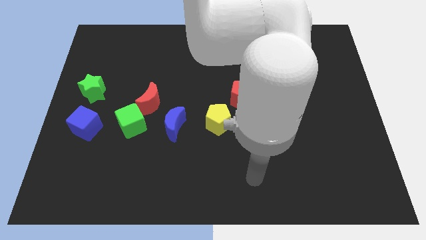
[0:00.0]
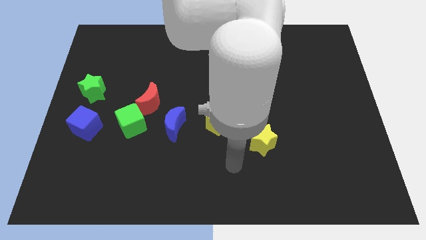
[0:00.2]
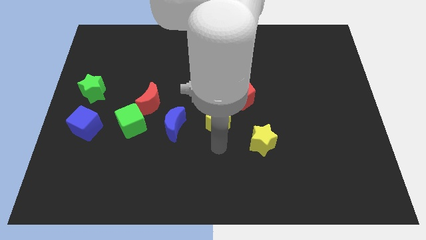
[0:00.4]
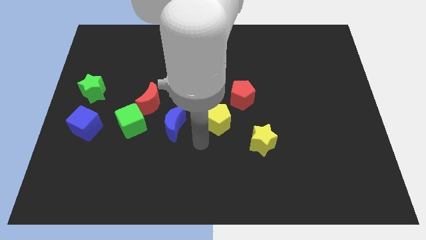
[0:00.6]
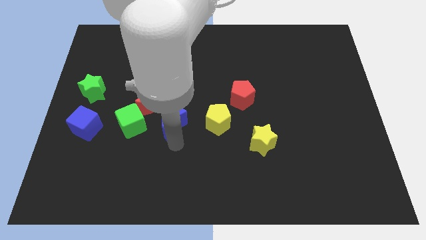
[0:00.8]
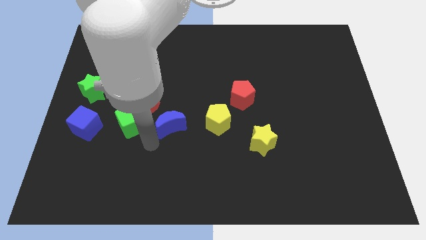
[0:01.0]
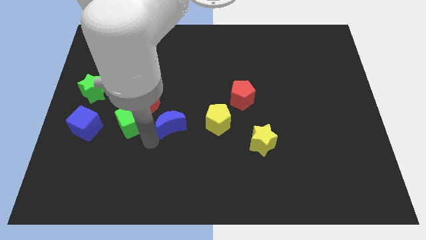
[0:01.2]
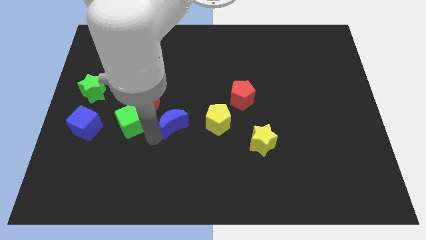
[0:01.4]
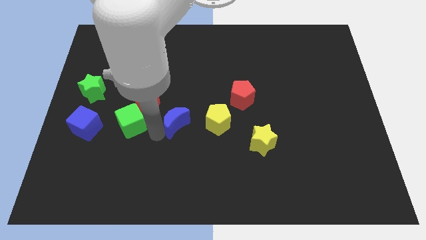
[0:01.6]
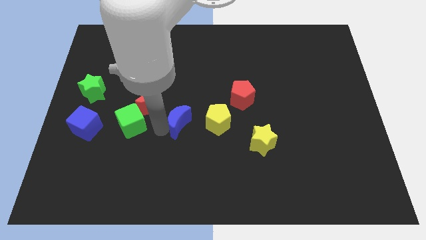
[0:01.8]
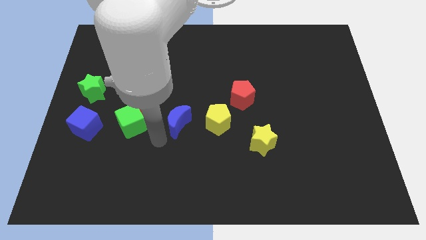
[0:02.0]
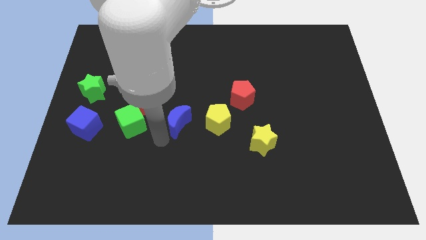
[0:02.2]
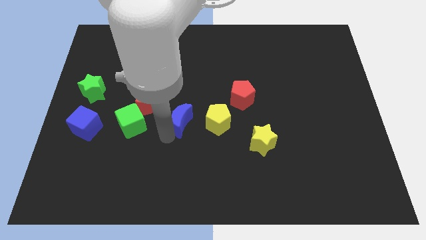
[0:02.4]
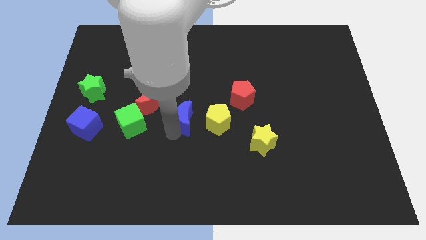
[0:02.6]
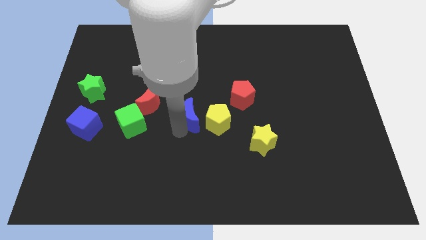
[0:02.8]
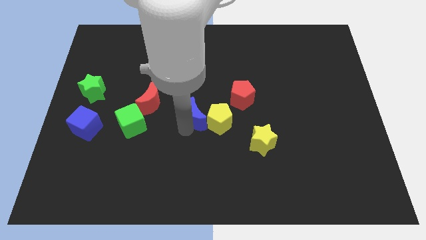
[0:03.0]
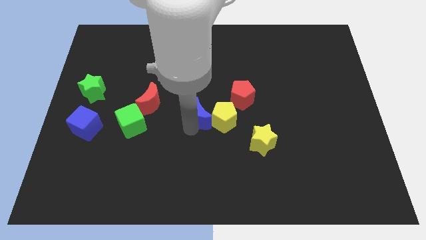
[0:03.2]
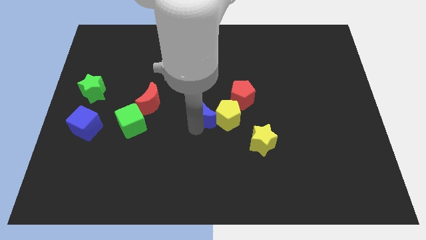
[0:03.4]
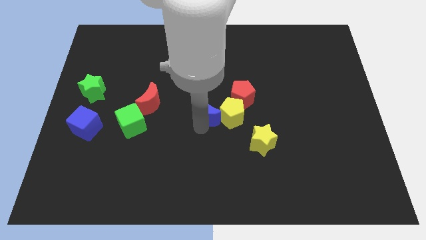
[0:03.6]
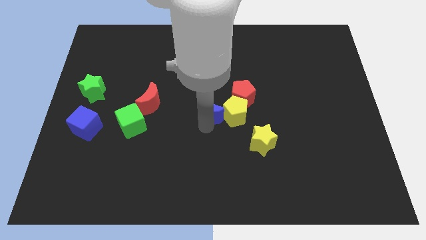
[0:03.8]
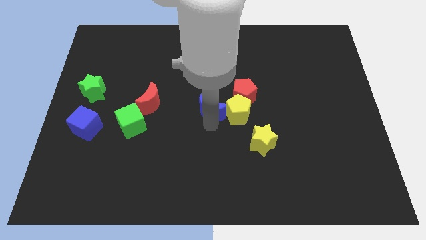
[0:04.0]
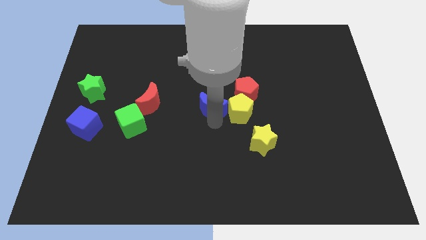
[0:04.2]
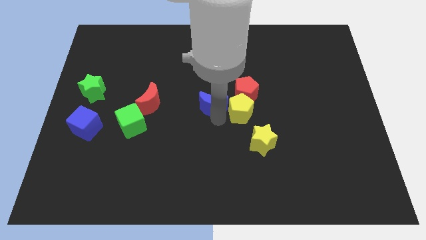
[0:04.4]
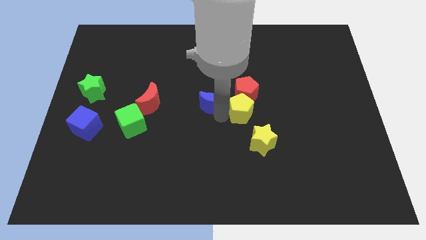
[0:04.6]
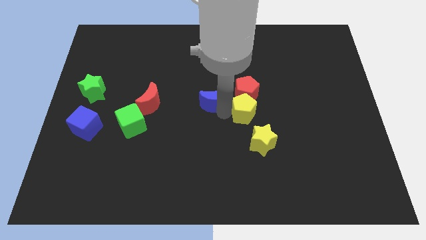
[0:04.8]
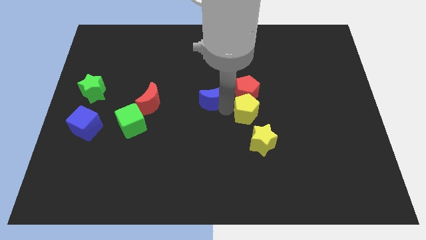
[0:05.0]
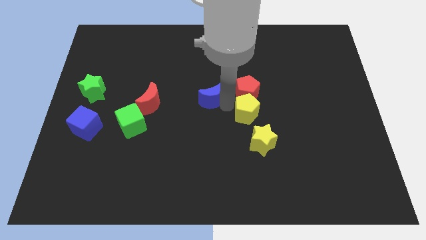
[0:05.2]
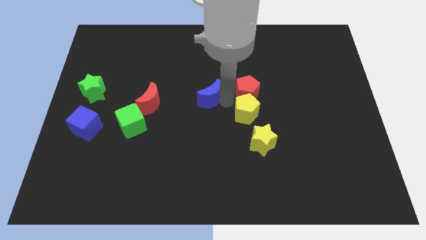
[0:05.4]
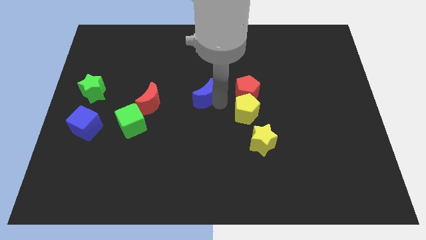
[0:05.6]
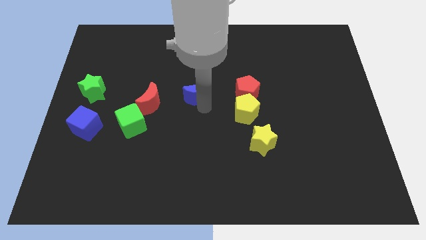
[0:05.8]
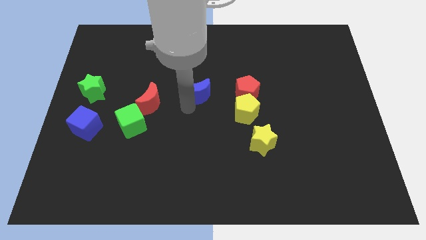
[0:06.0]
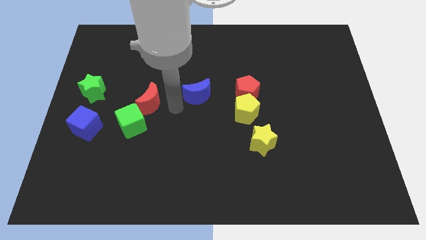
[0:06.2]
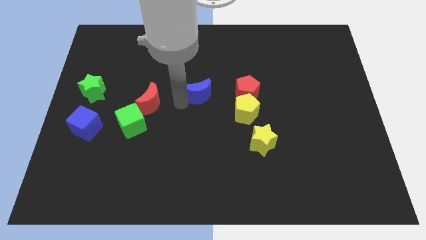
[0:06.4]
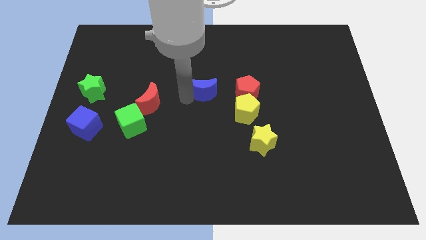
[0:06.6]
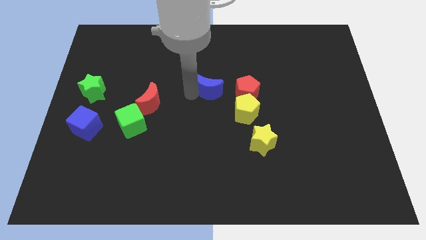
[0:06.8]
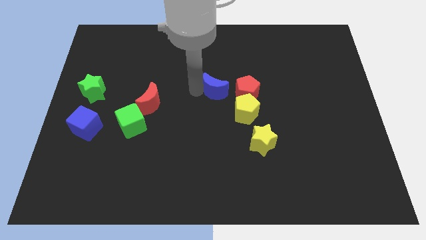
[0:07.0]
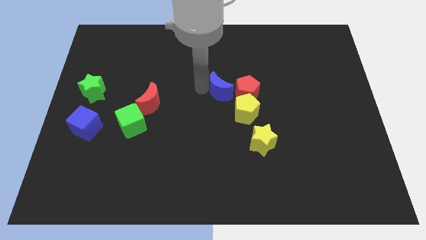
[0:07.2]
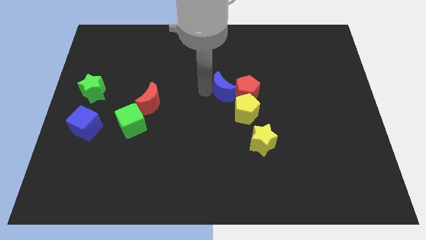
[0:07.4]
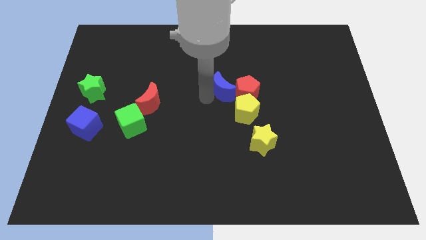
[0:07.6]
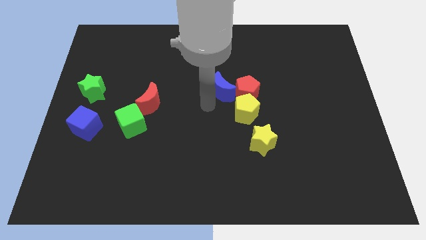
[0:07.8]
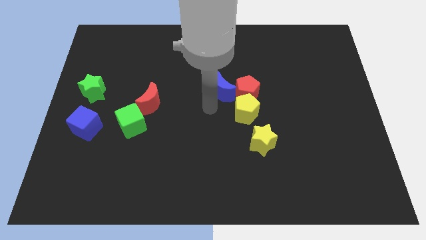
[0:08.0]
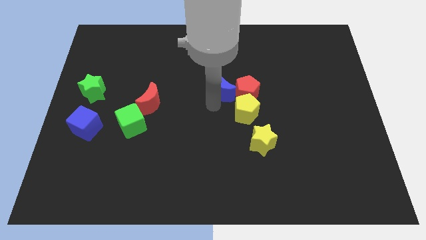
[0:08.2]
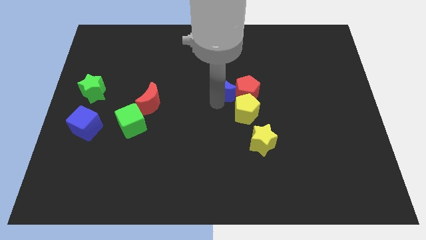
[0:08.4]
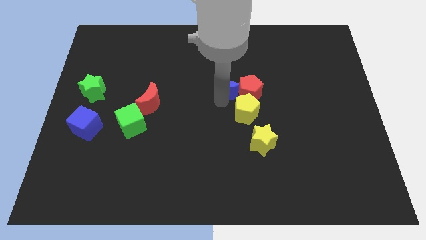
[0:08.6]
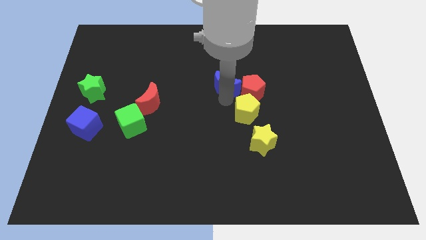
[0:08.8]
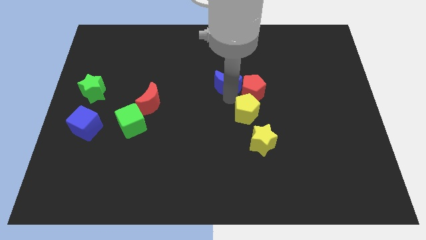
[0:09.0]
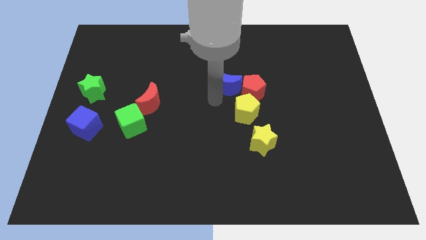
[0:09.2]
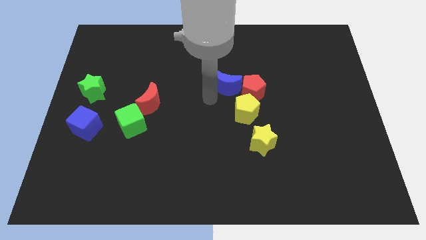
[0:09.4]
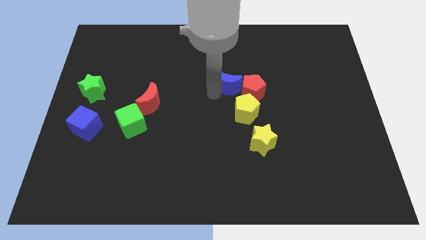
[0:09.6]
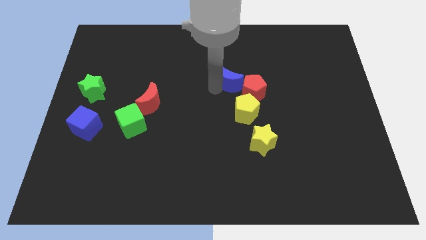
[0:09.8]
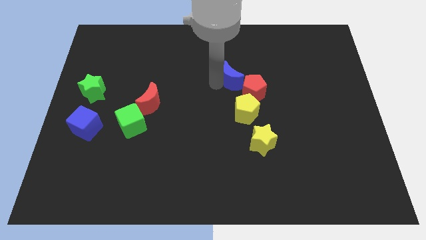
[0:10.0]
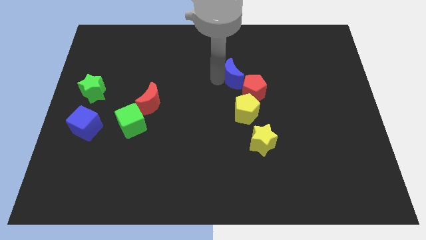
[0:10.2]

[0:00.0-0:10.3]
push the blue moon up and right

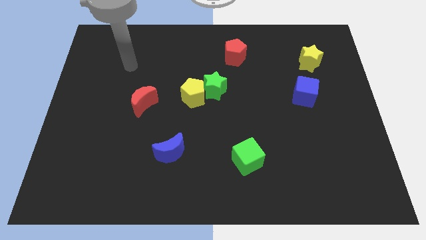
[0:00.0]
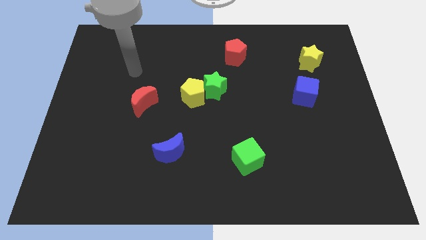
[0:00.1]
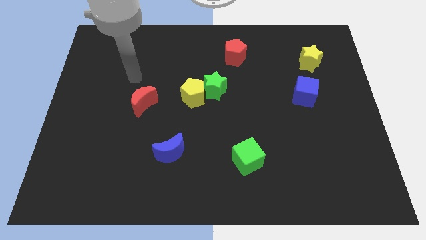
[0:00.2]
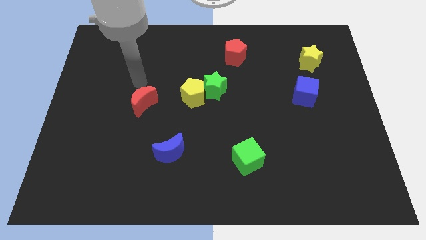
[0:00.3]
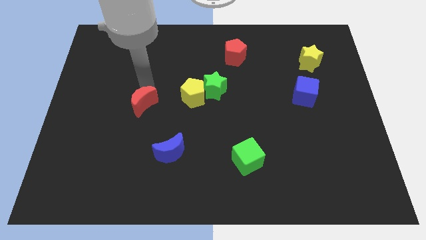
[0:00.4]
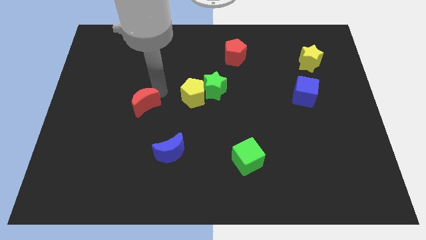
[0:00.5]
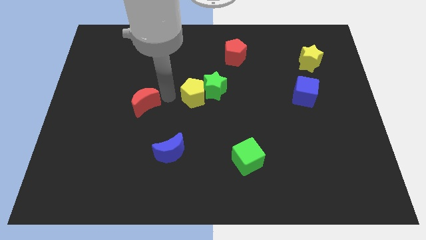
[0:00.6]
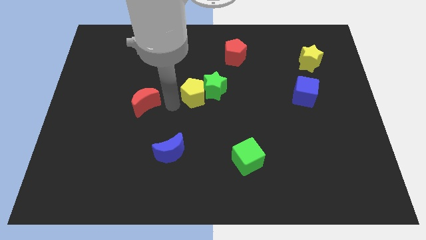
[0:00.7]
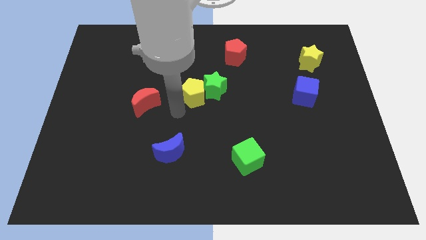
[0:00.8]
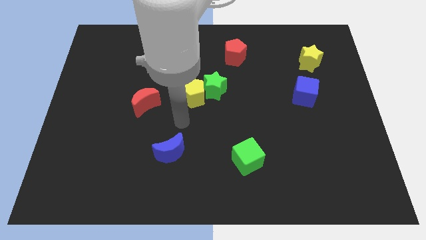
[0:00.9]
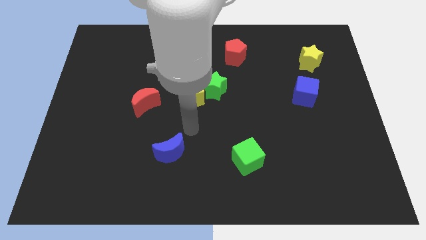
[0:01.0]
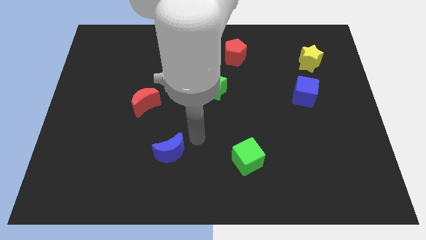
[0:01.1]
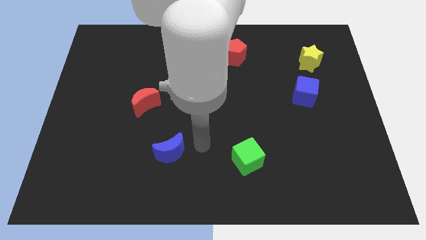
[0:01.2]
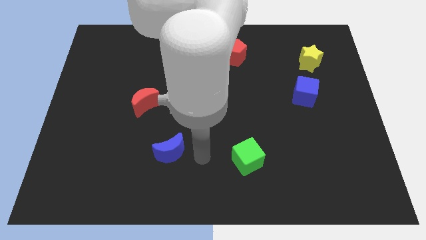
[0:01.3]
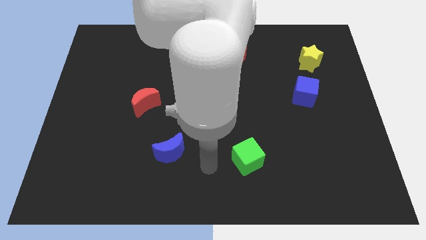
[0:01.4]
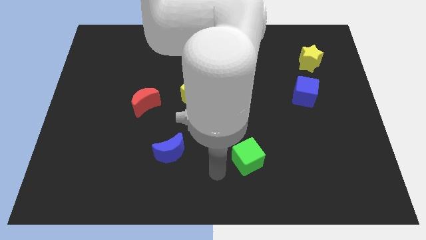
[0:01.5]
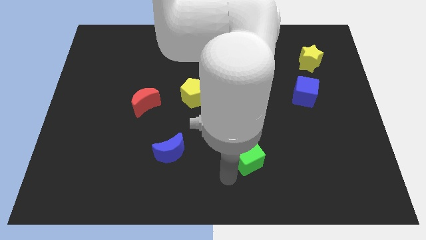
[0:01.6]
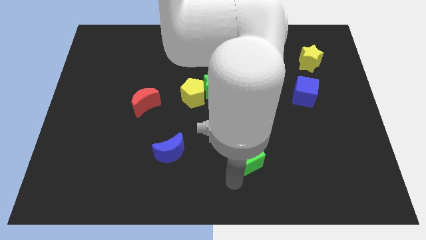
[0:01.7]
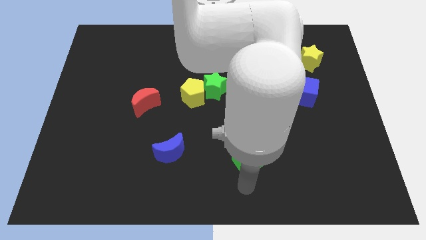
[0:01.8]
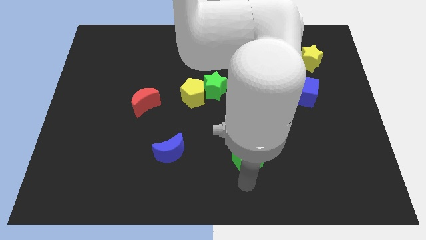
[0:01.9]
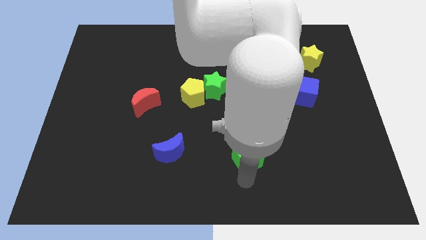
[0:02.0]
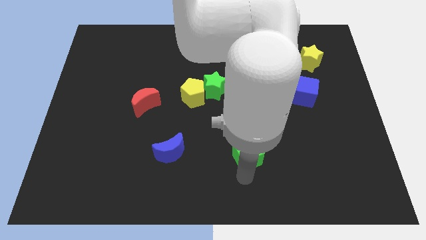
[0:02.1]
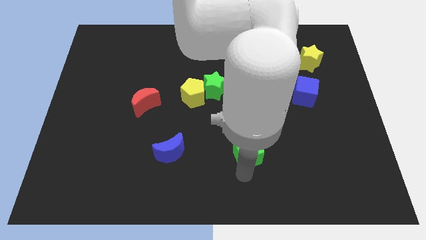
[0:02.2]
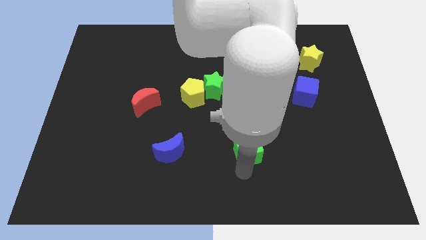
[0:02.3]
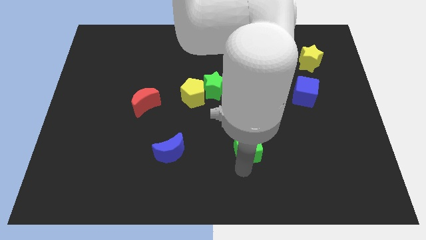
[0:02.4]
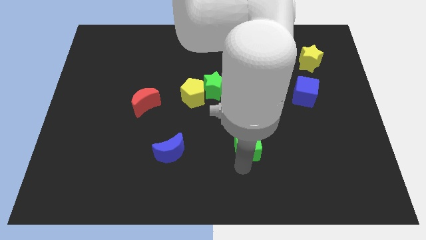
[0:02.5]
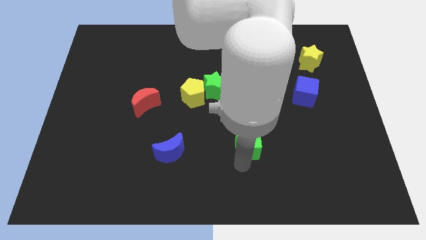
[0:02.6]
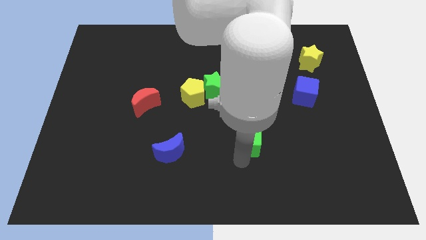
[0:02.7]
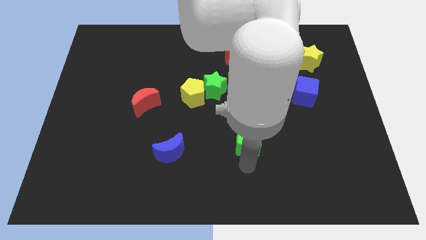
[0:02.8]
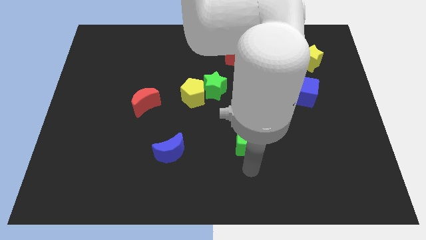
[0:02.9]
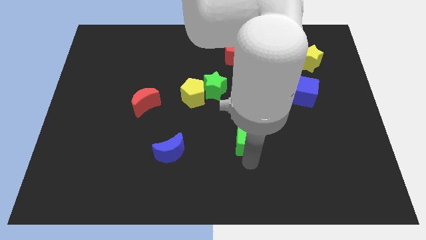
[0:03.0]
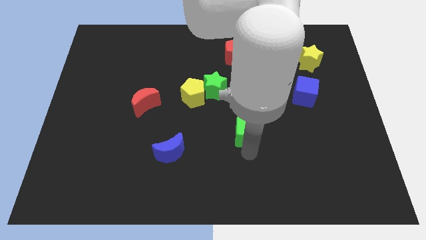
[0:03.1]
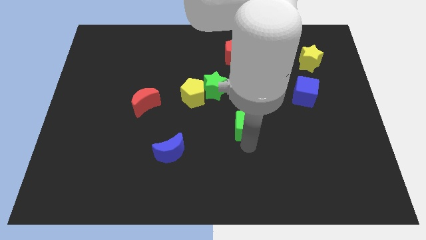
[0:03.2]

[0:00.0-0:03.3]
push the green cube up somewhat
